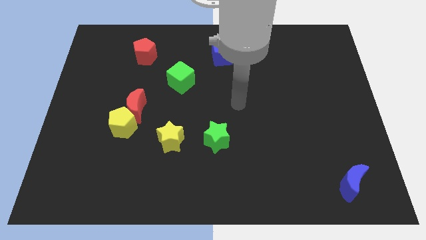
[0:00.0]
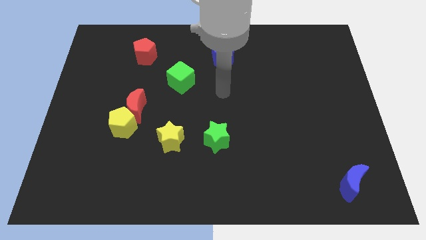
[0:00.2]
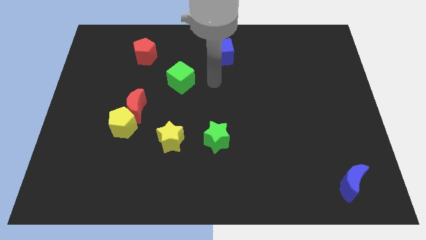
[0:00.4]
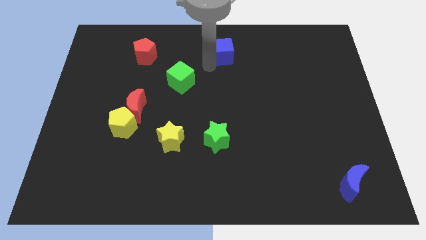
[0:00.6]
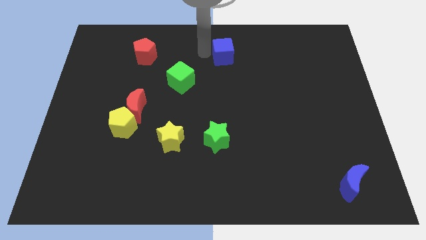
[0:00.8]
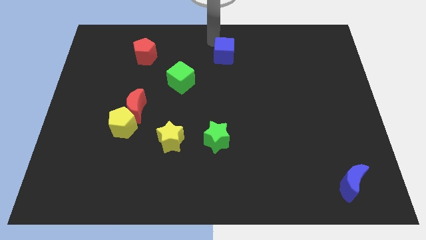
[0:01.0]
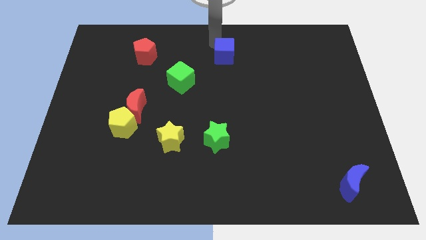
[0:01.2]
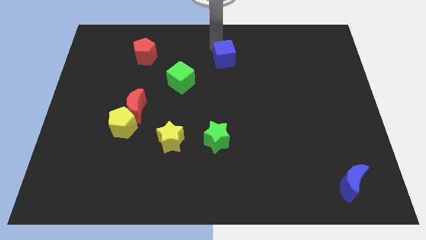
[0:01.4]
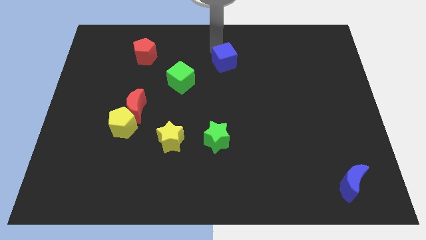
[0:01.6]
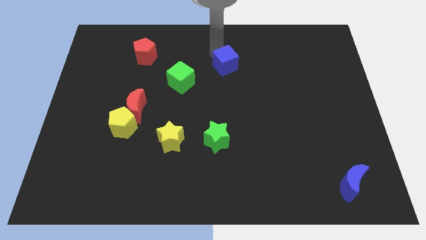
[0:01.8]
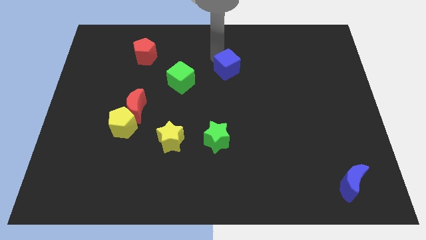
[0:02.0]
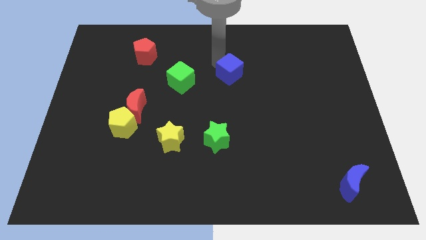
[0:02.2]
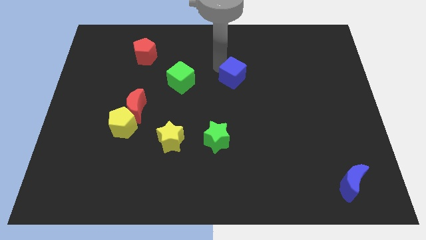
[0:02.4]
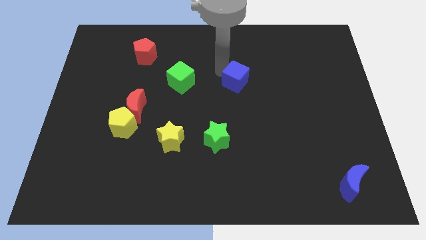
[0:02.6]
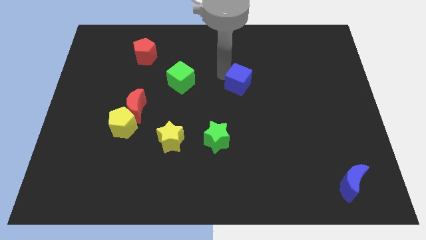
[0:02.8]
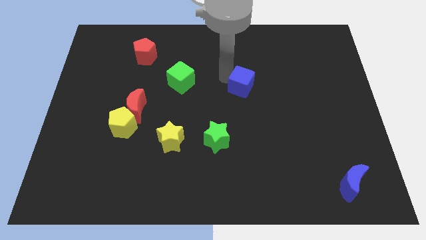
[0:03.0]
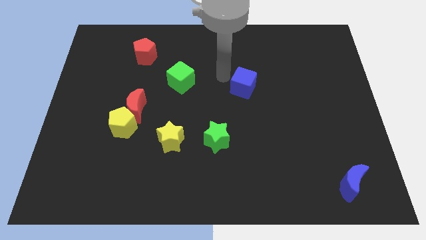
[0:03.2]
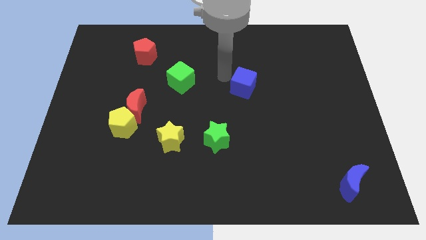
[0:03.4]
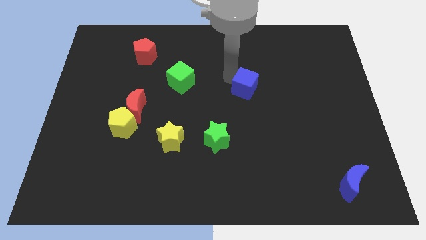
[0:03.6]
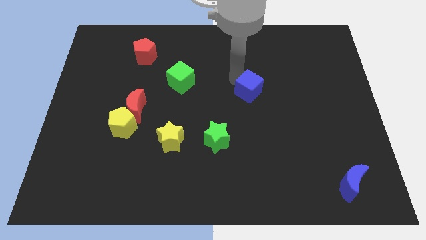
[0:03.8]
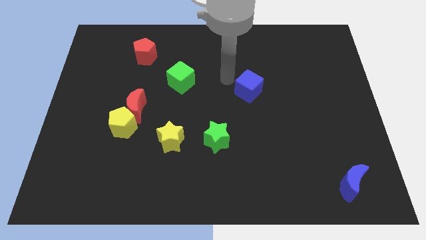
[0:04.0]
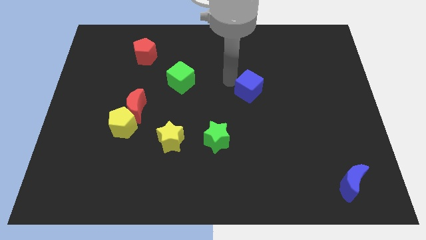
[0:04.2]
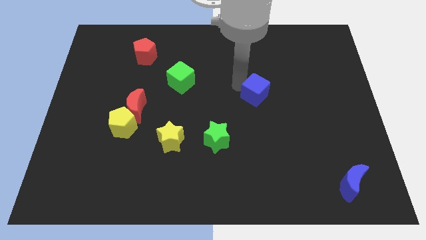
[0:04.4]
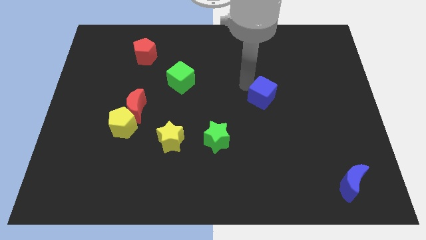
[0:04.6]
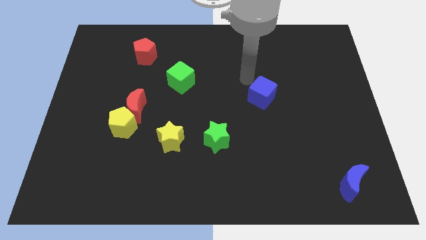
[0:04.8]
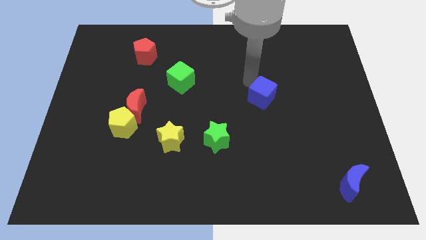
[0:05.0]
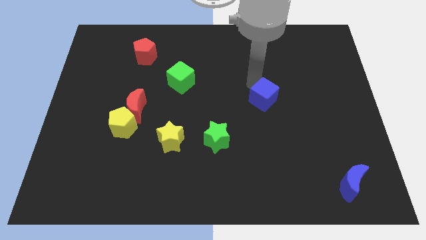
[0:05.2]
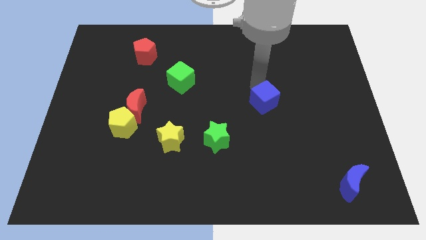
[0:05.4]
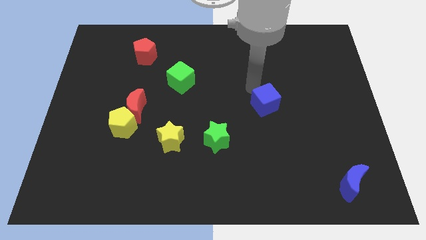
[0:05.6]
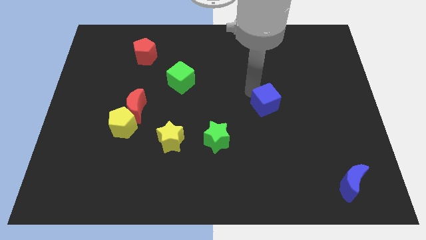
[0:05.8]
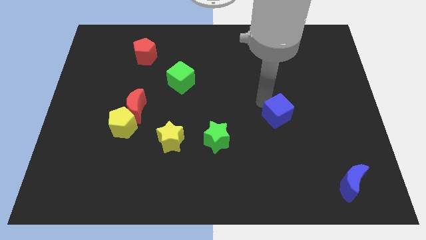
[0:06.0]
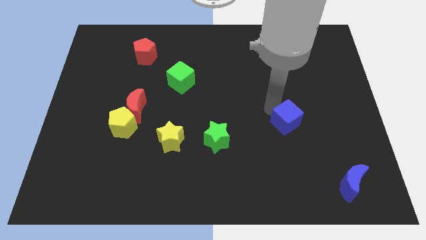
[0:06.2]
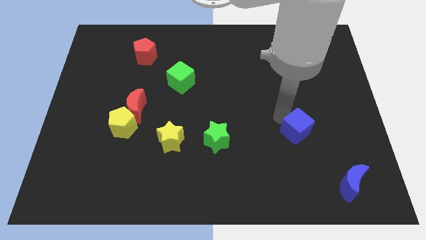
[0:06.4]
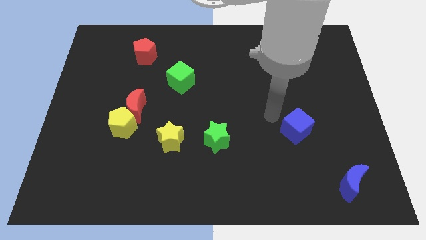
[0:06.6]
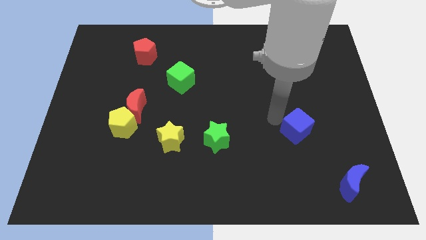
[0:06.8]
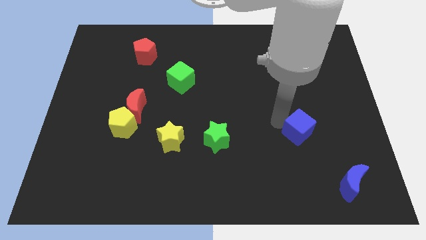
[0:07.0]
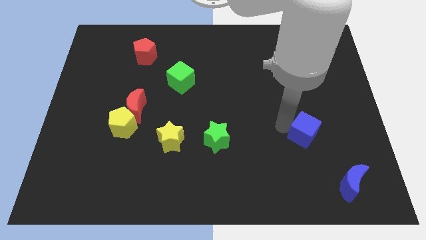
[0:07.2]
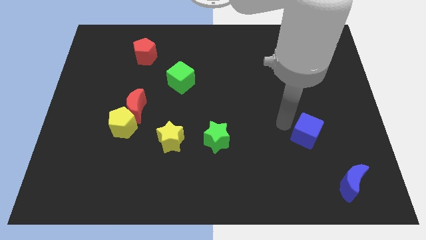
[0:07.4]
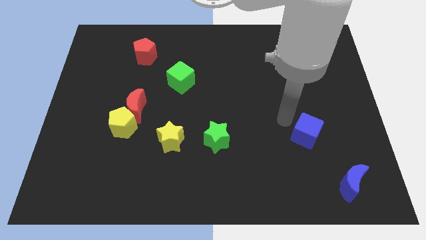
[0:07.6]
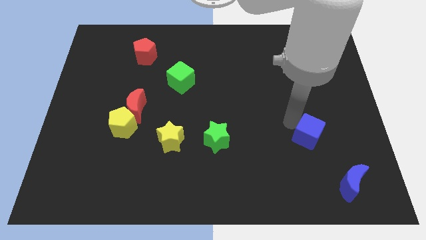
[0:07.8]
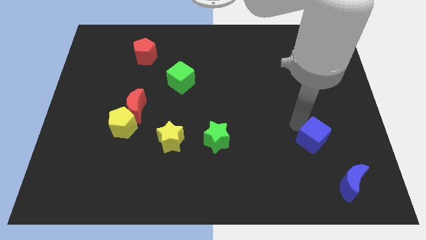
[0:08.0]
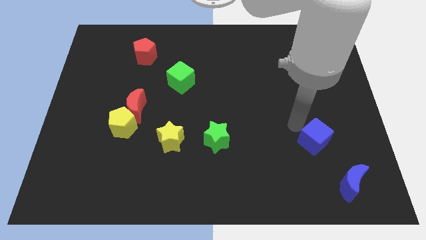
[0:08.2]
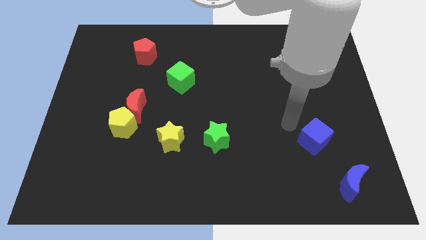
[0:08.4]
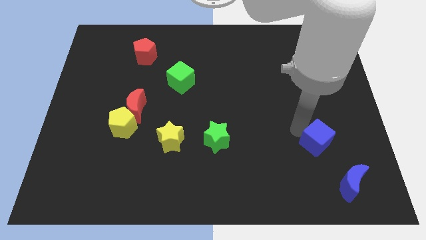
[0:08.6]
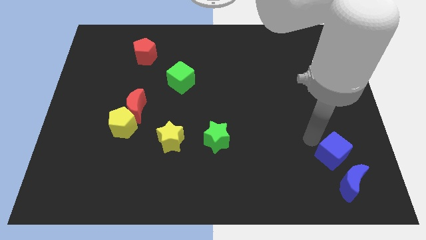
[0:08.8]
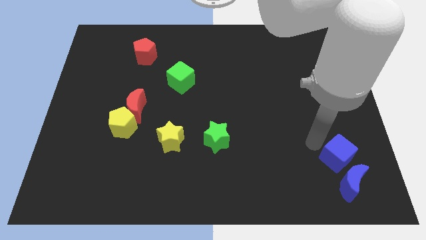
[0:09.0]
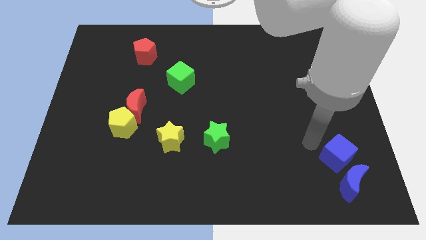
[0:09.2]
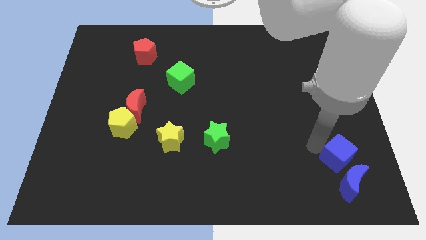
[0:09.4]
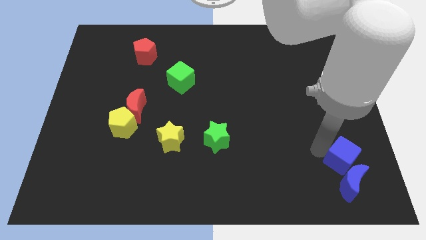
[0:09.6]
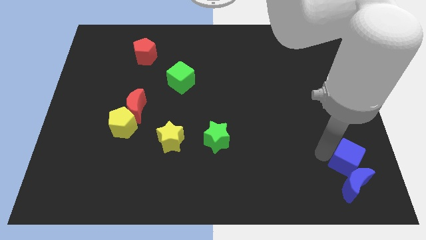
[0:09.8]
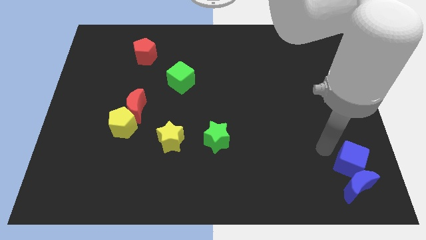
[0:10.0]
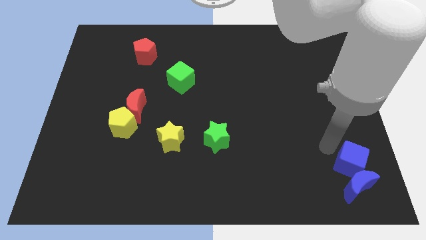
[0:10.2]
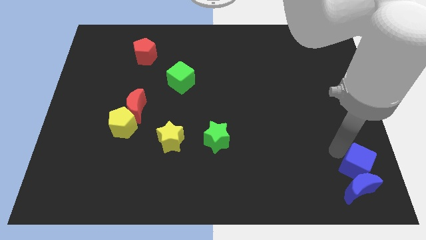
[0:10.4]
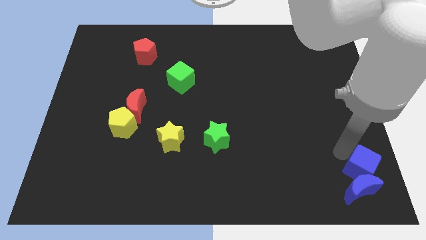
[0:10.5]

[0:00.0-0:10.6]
push the blue cube to the bottom right corner
